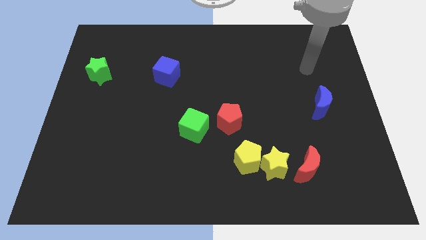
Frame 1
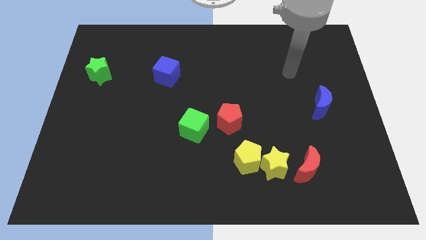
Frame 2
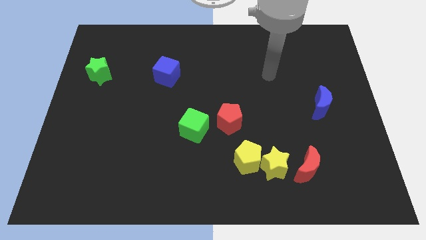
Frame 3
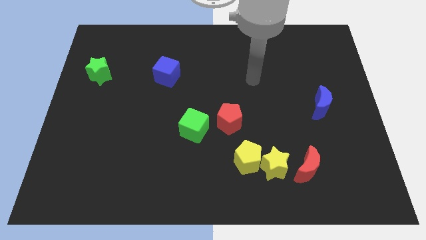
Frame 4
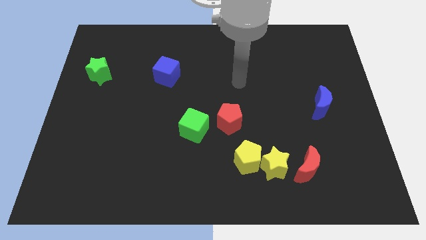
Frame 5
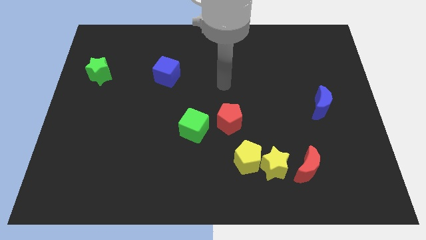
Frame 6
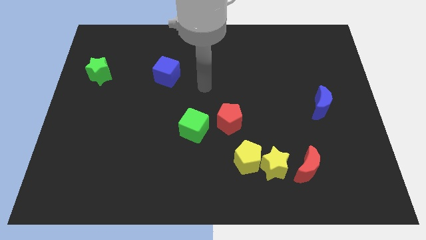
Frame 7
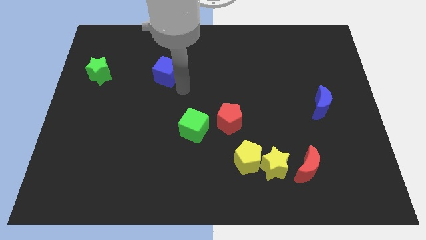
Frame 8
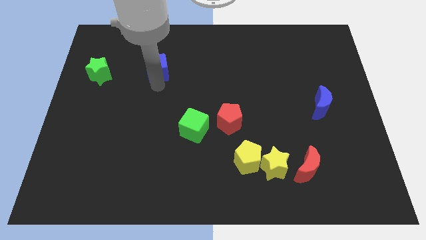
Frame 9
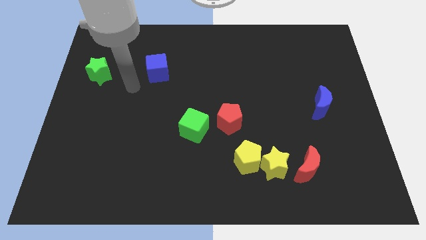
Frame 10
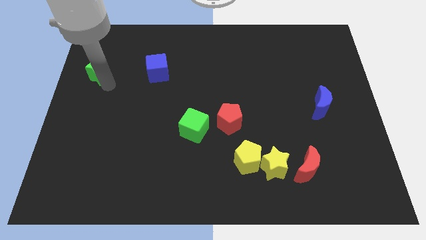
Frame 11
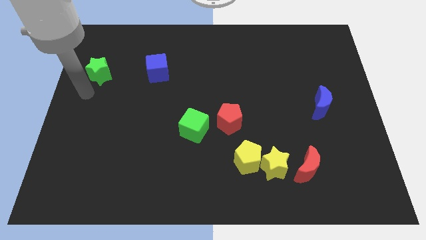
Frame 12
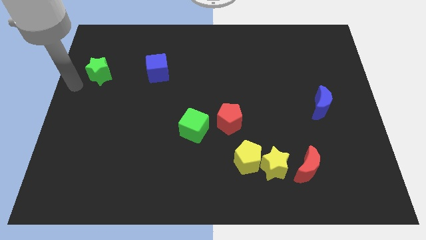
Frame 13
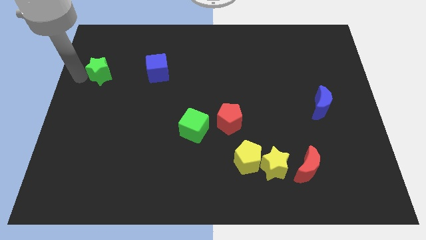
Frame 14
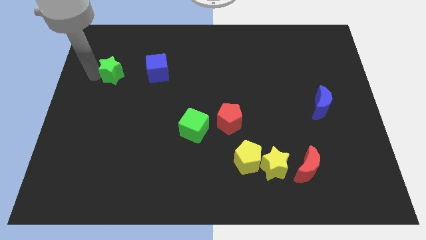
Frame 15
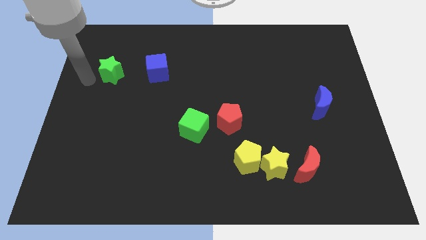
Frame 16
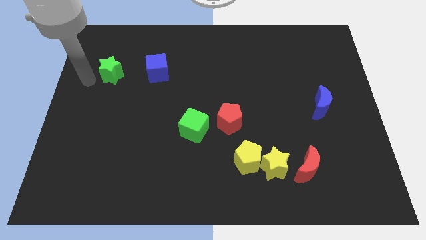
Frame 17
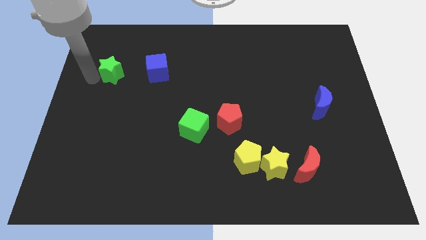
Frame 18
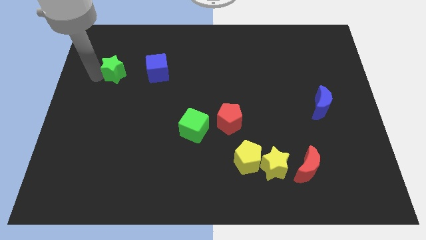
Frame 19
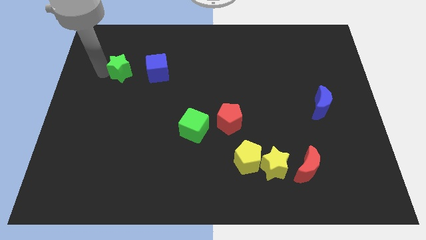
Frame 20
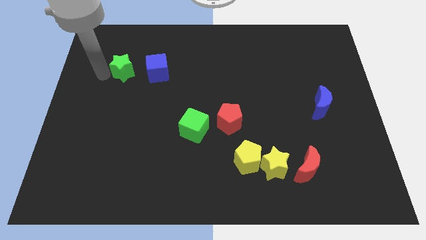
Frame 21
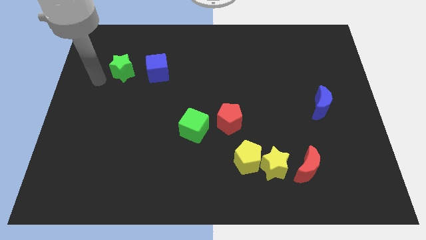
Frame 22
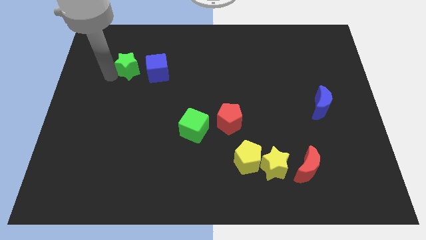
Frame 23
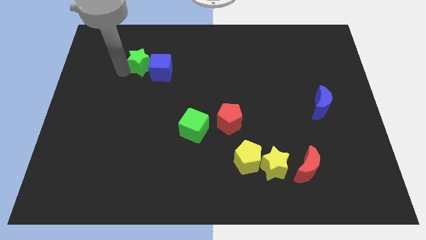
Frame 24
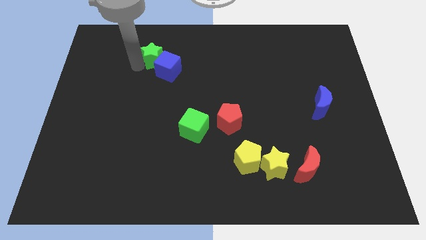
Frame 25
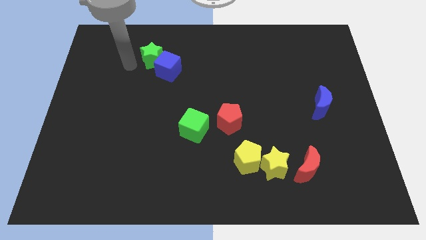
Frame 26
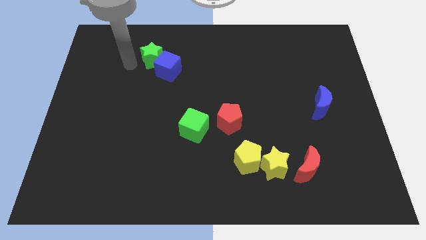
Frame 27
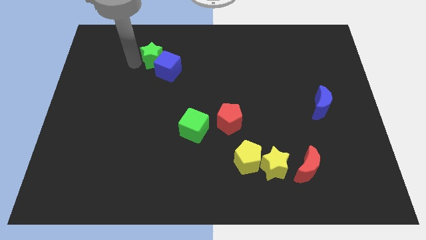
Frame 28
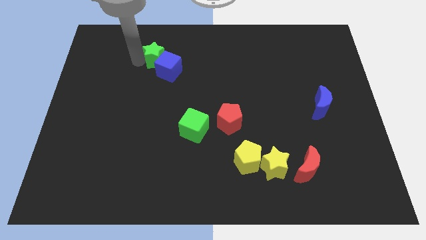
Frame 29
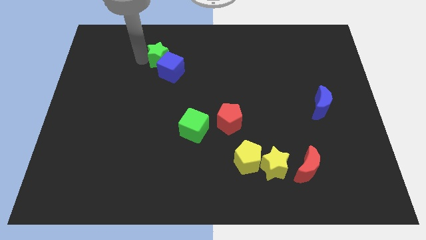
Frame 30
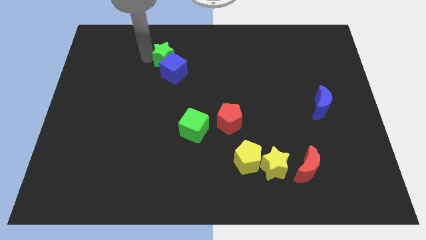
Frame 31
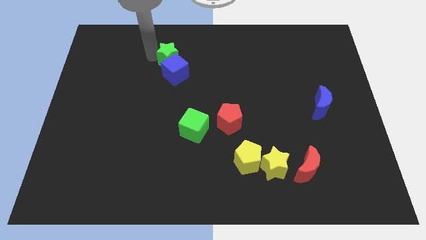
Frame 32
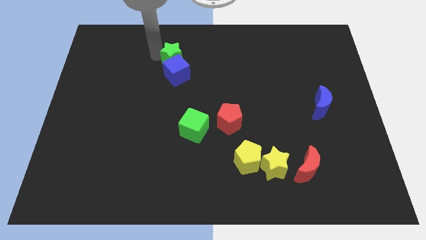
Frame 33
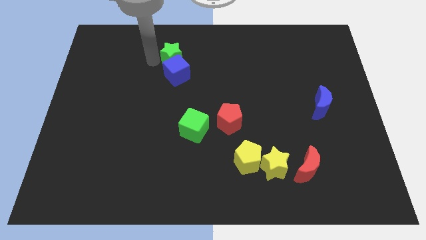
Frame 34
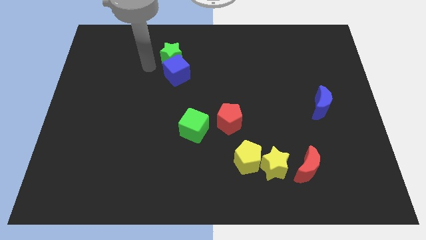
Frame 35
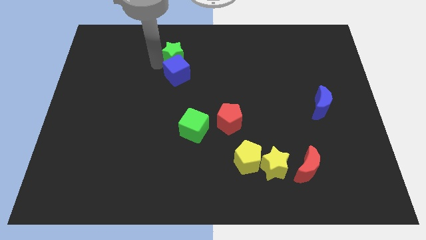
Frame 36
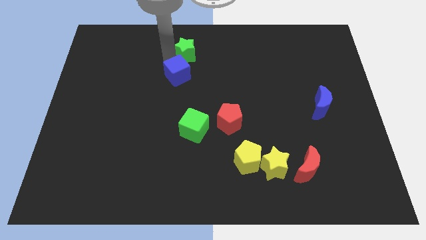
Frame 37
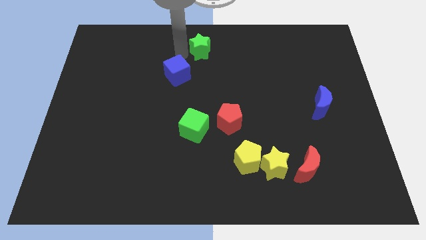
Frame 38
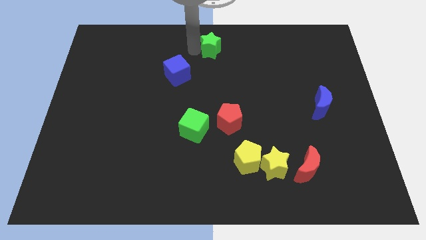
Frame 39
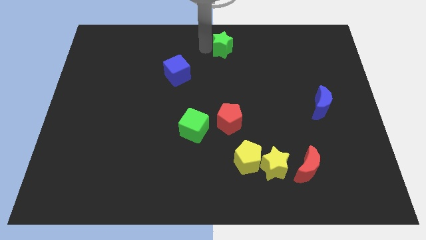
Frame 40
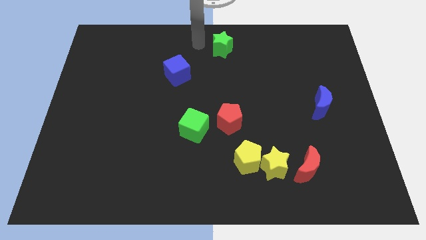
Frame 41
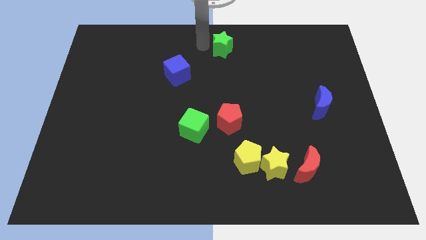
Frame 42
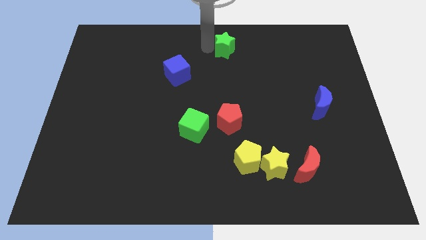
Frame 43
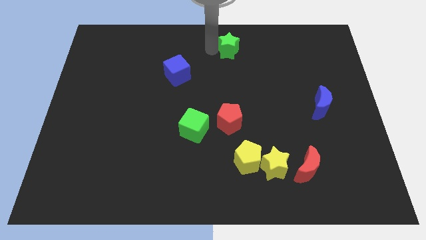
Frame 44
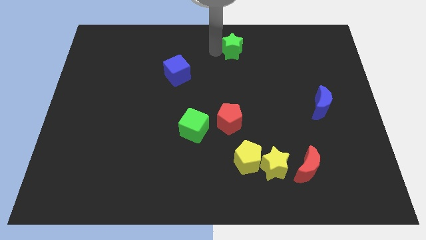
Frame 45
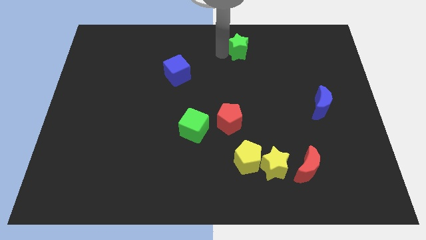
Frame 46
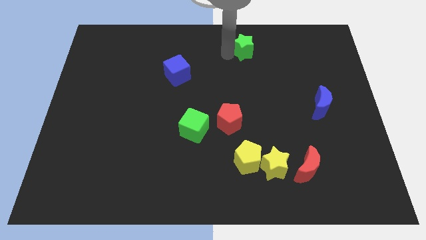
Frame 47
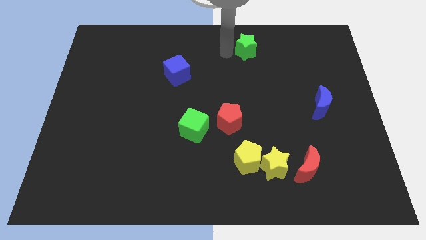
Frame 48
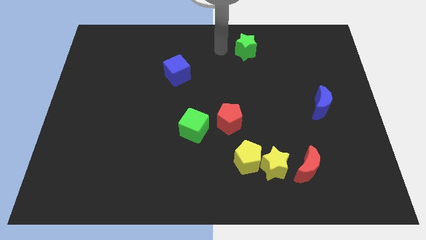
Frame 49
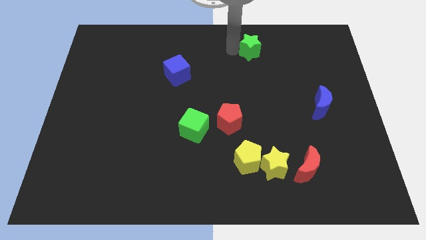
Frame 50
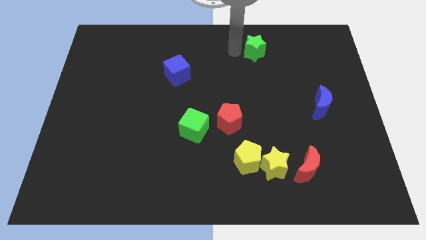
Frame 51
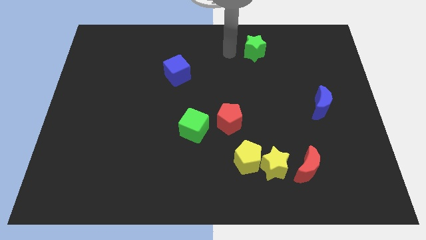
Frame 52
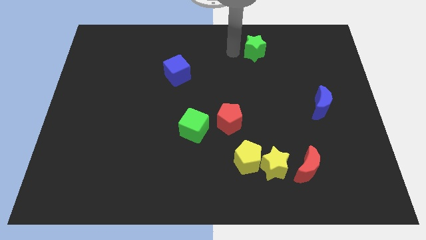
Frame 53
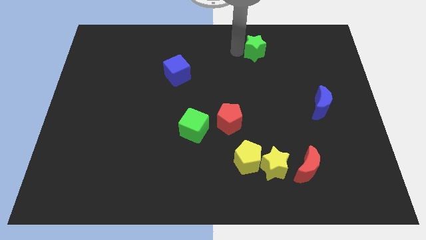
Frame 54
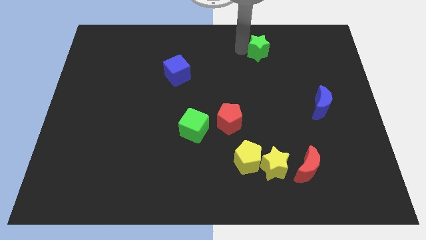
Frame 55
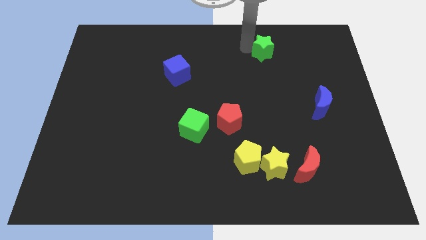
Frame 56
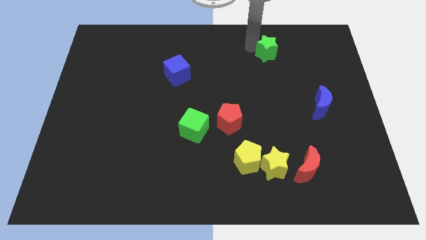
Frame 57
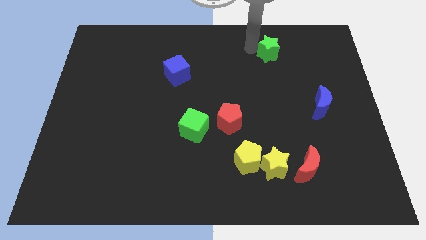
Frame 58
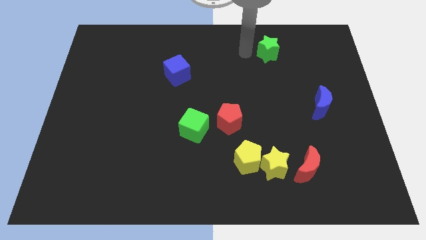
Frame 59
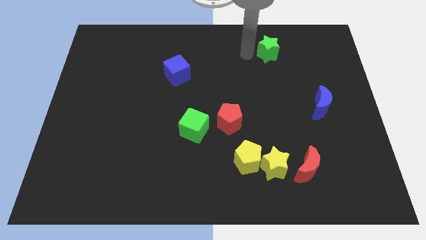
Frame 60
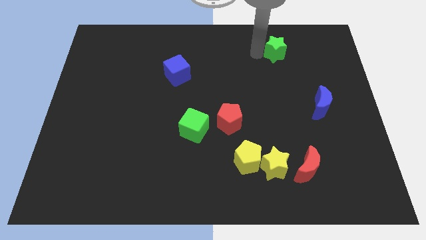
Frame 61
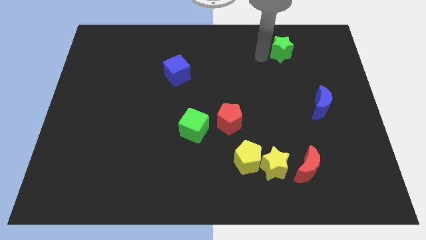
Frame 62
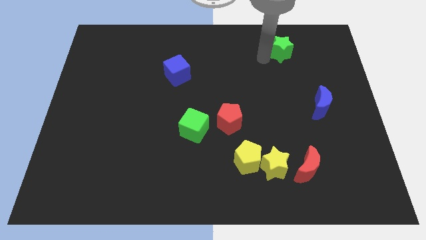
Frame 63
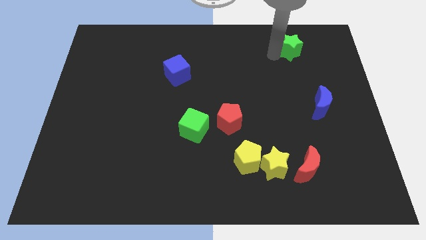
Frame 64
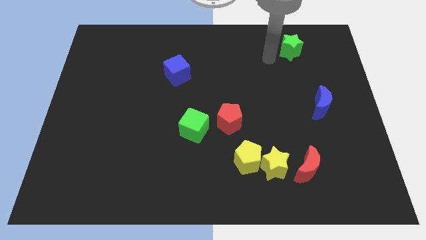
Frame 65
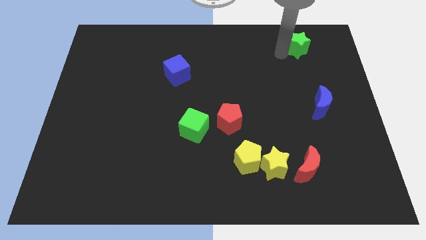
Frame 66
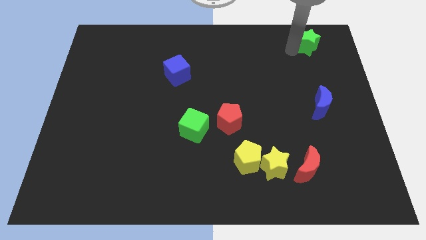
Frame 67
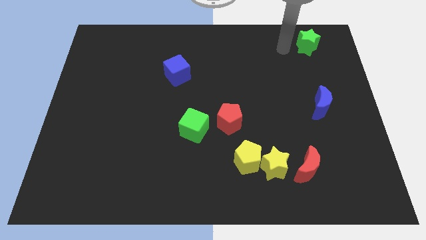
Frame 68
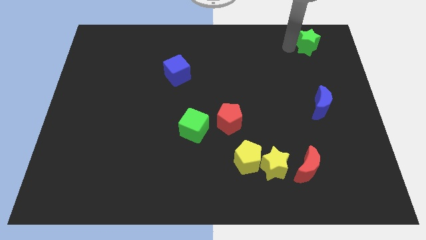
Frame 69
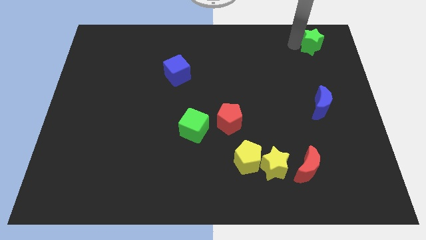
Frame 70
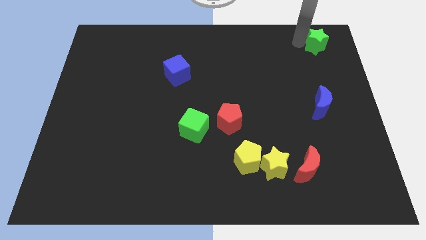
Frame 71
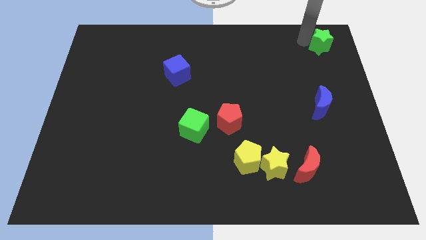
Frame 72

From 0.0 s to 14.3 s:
push the green star to the top right
